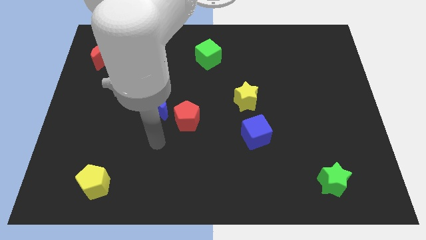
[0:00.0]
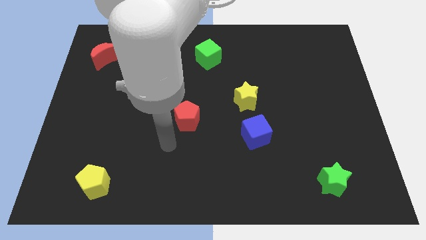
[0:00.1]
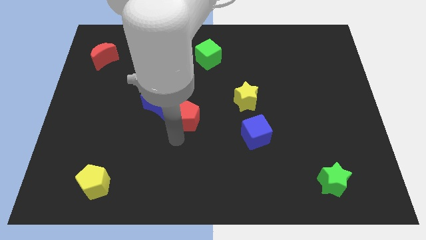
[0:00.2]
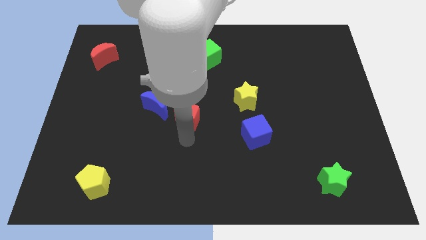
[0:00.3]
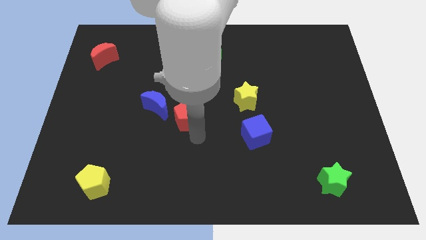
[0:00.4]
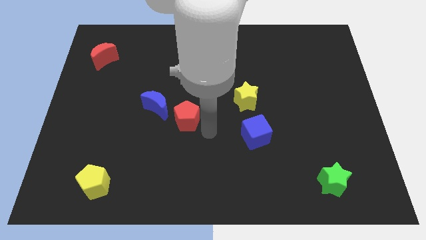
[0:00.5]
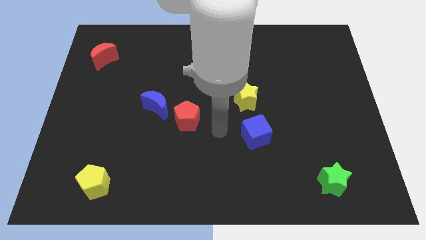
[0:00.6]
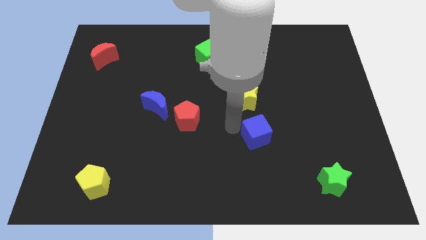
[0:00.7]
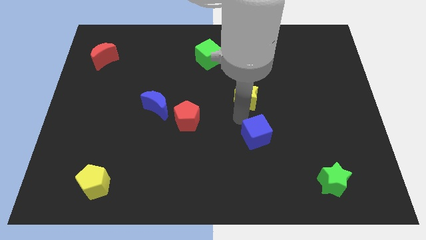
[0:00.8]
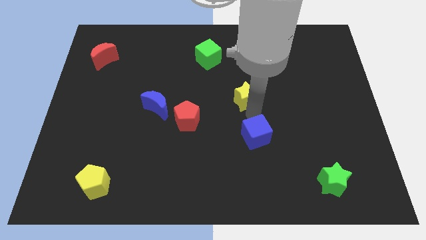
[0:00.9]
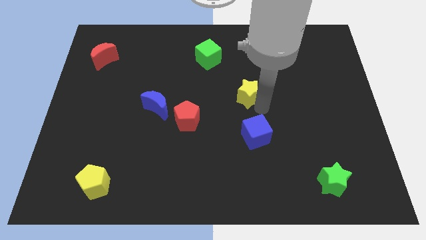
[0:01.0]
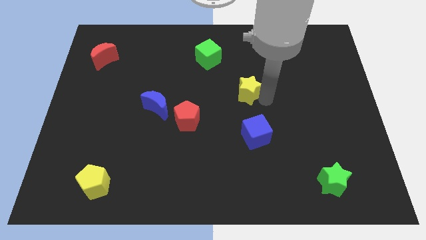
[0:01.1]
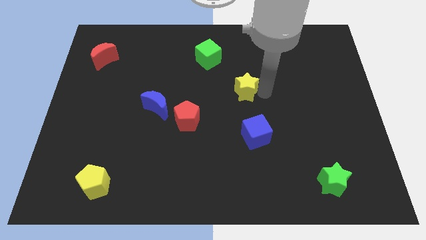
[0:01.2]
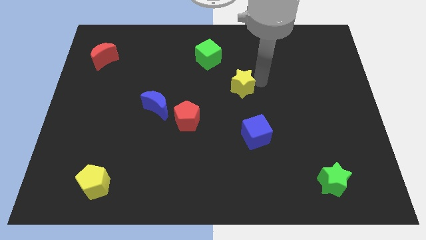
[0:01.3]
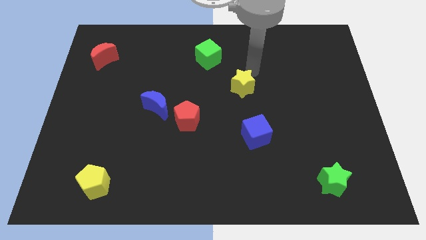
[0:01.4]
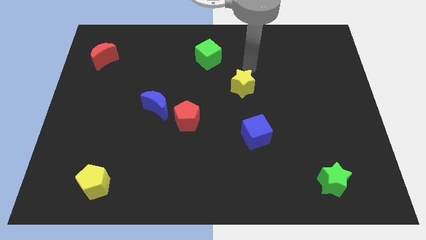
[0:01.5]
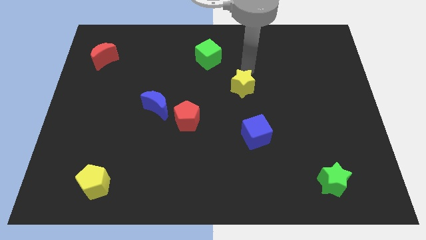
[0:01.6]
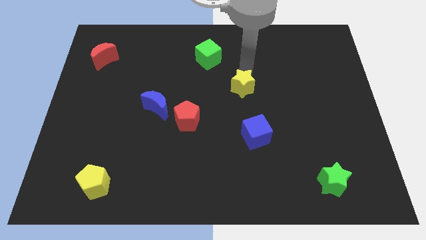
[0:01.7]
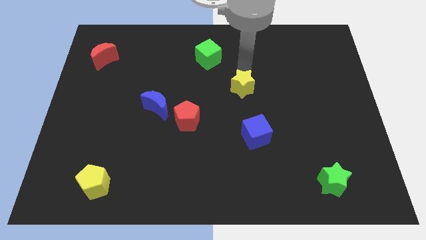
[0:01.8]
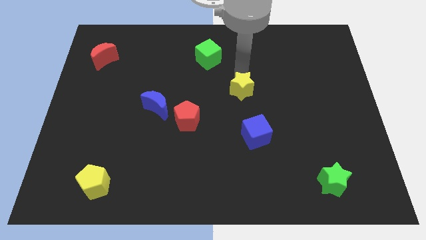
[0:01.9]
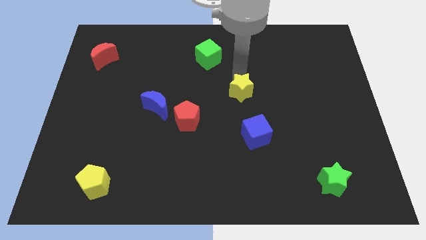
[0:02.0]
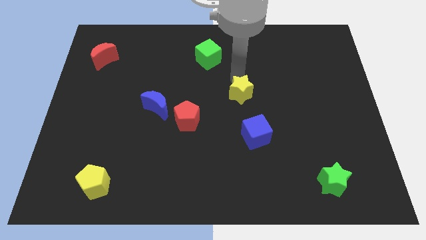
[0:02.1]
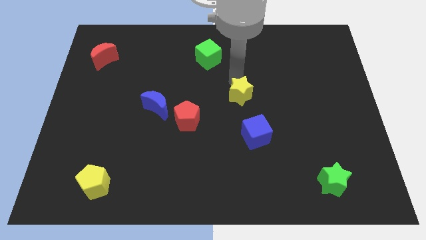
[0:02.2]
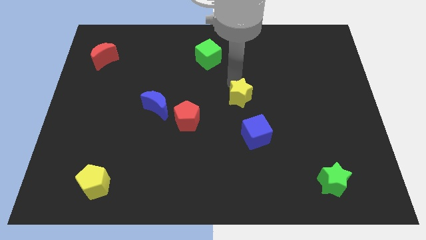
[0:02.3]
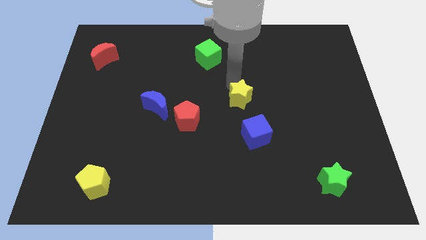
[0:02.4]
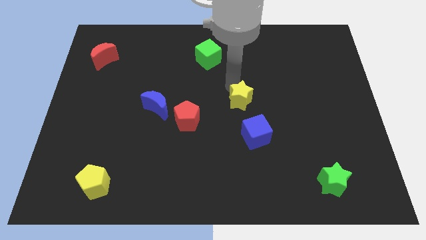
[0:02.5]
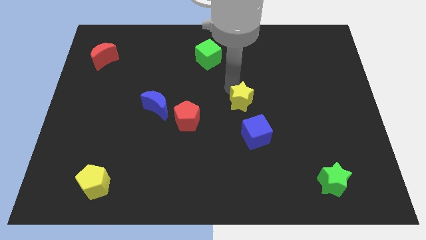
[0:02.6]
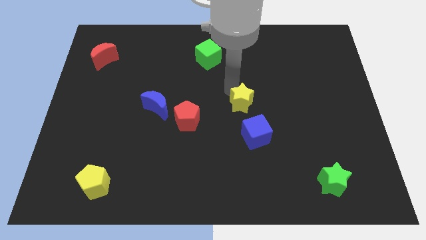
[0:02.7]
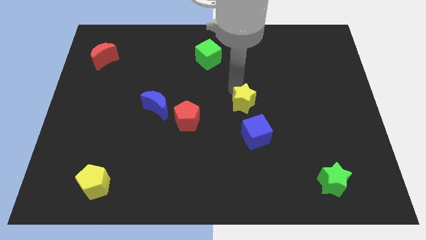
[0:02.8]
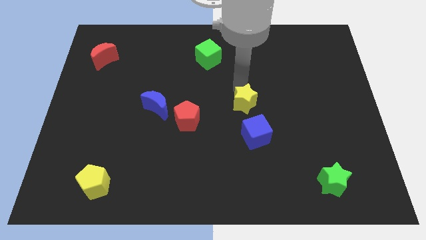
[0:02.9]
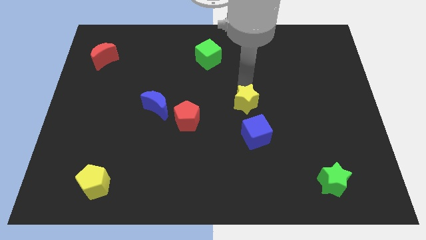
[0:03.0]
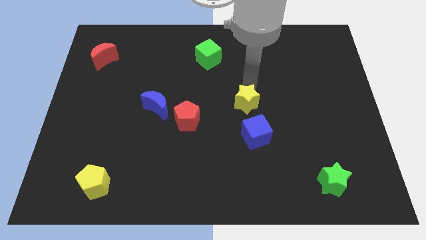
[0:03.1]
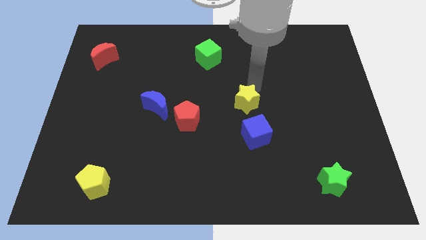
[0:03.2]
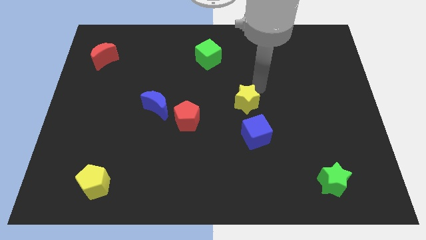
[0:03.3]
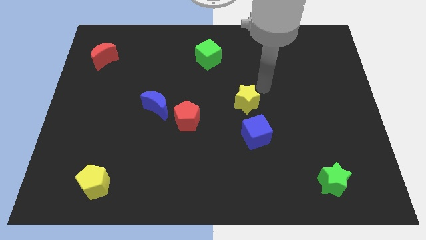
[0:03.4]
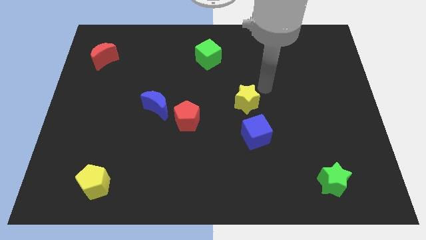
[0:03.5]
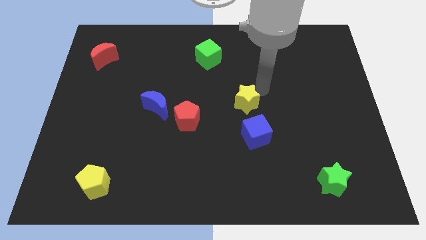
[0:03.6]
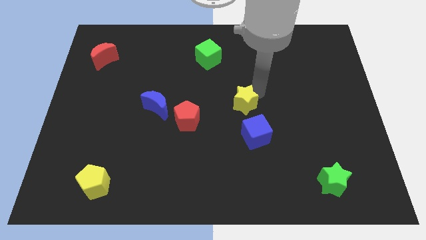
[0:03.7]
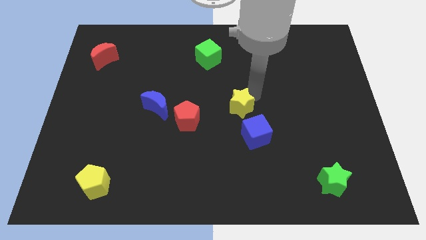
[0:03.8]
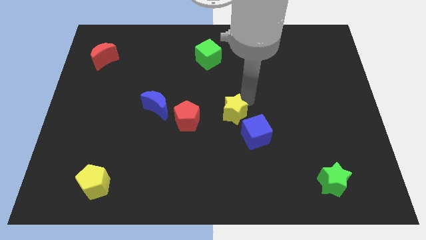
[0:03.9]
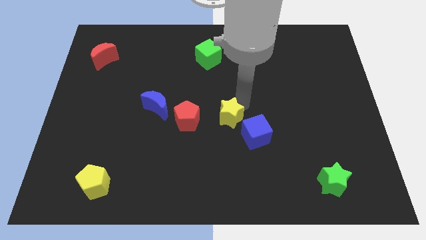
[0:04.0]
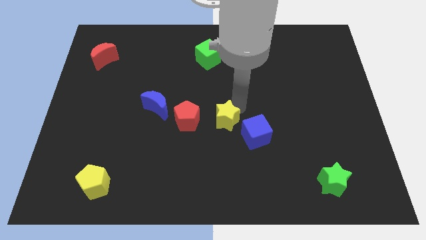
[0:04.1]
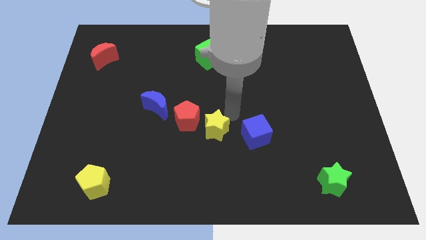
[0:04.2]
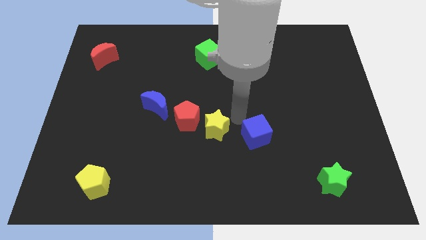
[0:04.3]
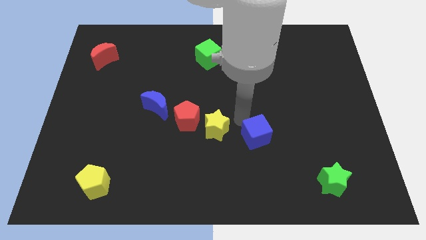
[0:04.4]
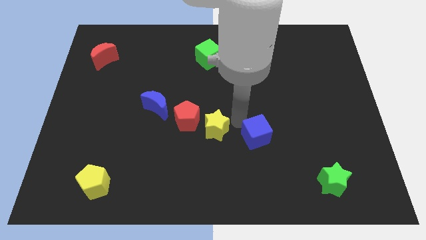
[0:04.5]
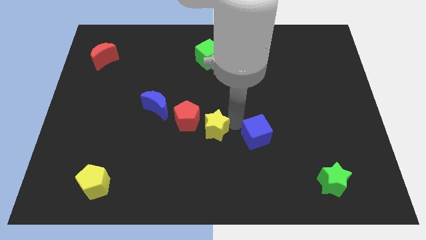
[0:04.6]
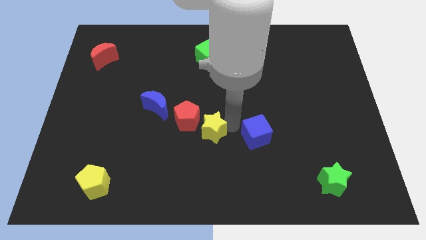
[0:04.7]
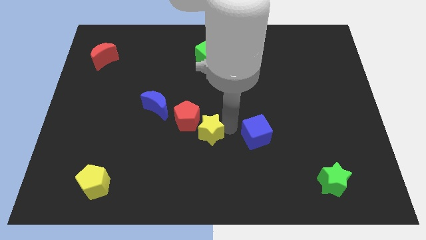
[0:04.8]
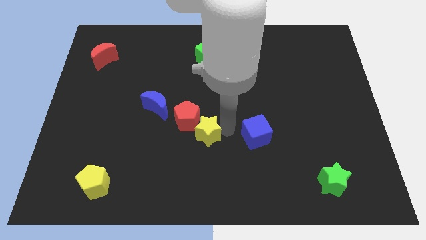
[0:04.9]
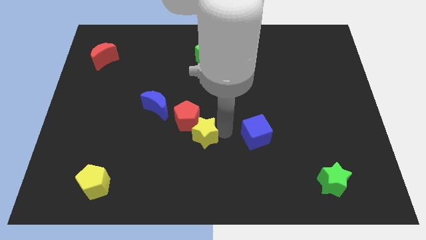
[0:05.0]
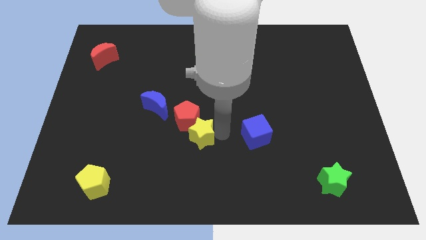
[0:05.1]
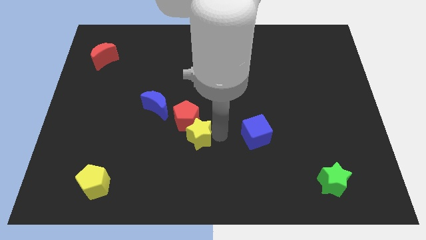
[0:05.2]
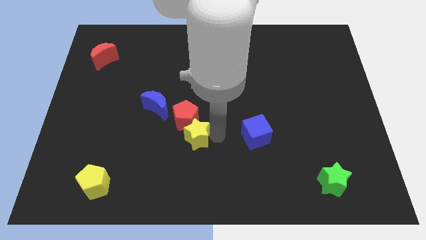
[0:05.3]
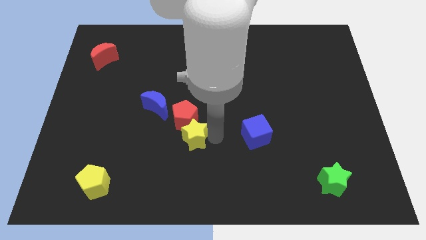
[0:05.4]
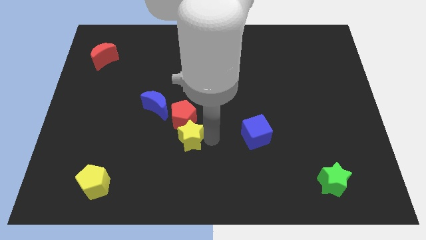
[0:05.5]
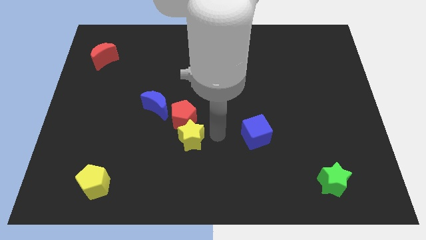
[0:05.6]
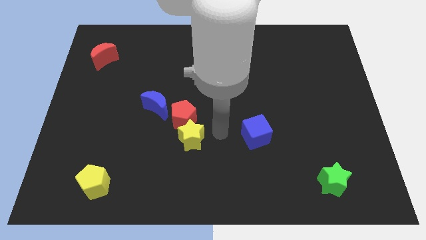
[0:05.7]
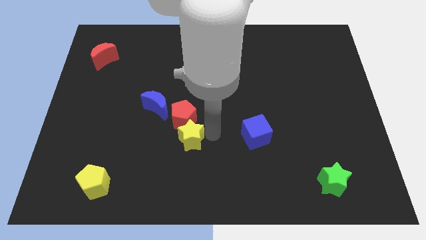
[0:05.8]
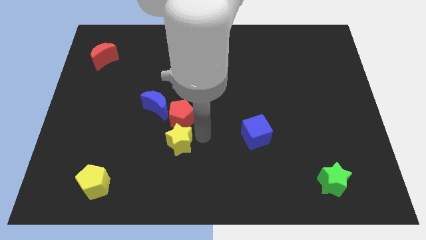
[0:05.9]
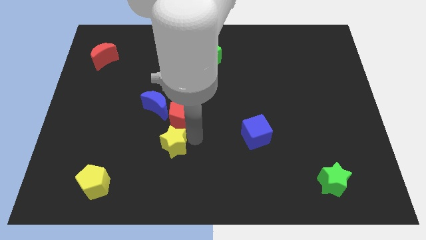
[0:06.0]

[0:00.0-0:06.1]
slide the yellow star below the blue moon

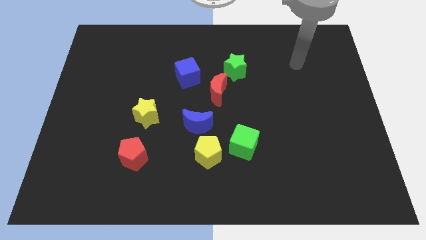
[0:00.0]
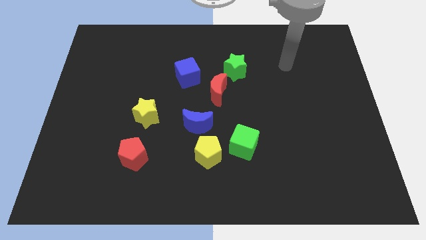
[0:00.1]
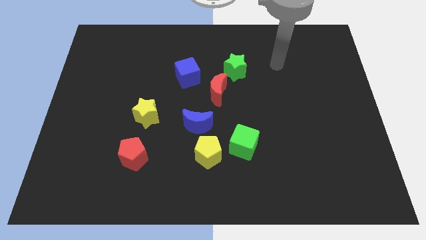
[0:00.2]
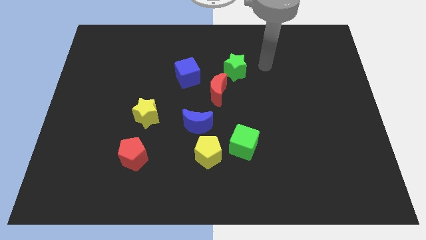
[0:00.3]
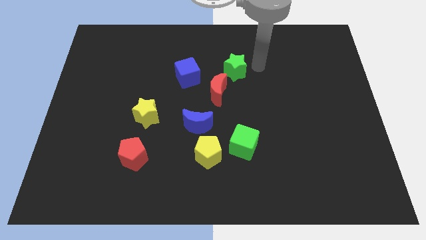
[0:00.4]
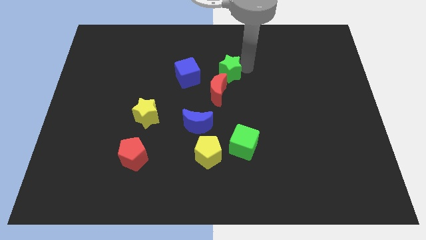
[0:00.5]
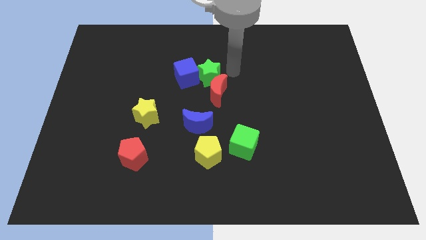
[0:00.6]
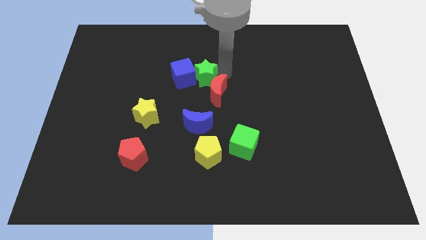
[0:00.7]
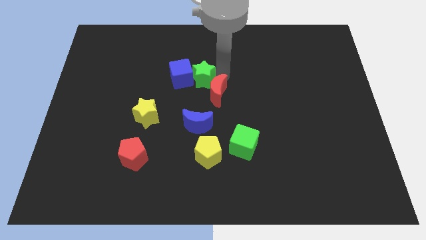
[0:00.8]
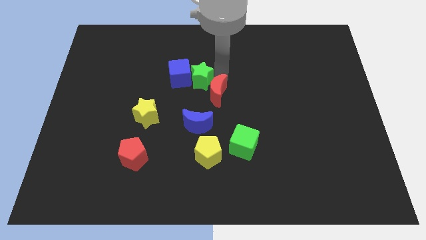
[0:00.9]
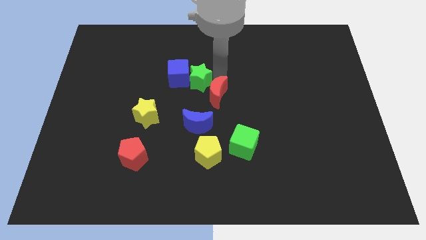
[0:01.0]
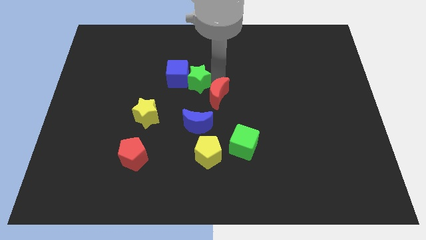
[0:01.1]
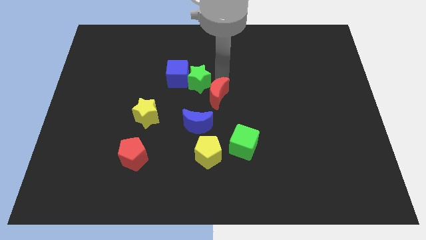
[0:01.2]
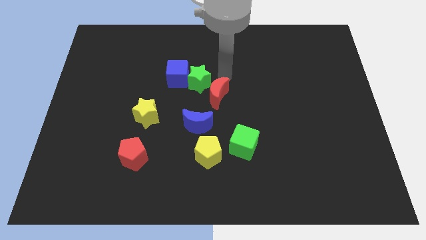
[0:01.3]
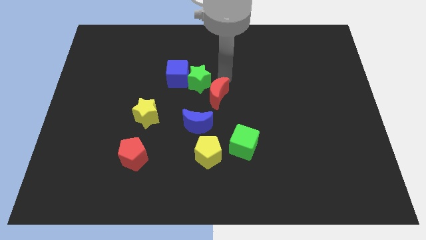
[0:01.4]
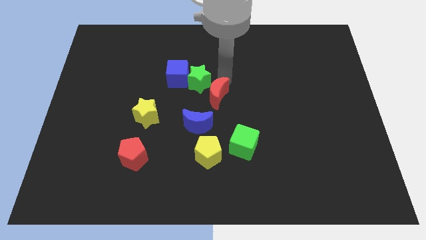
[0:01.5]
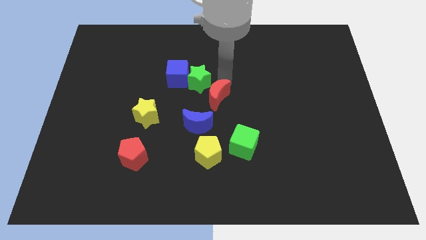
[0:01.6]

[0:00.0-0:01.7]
push the red moon above the yellow pentagon
